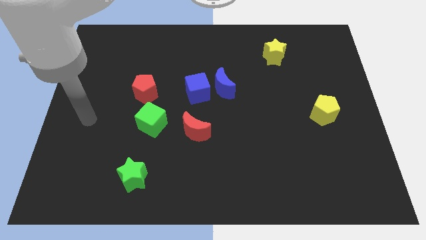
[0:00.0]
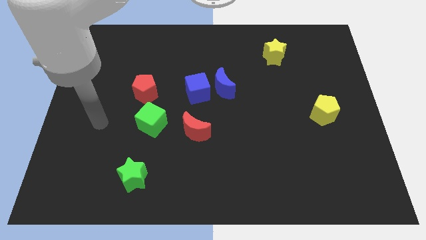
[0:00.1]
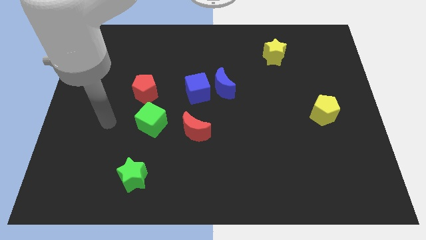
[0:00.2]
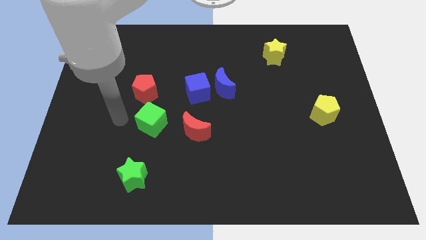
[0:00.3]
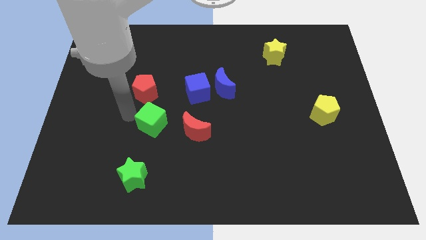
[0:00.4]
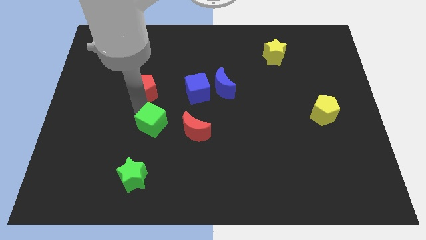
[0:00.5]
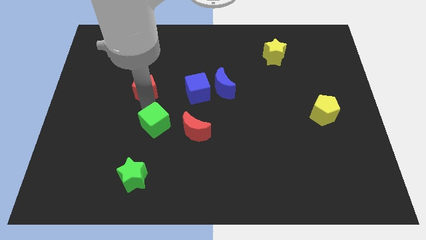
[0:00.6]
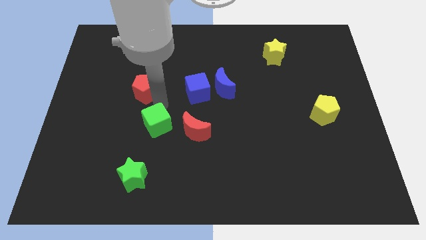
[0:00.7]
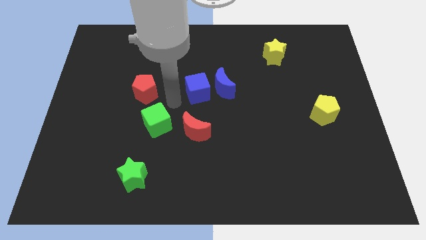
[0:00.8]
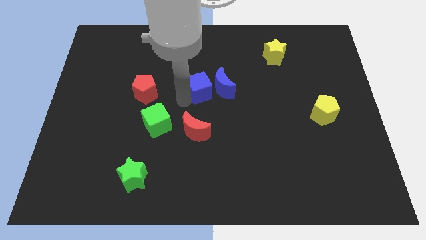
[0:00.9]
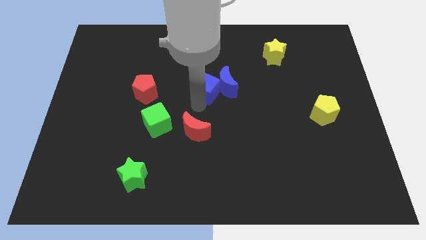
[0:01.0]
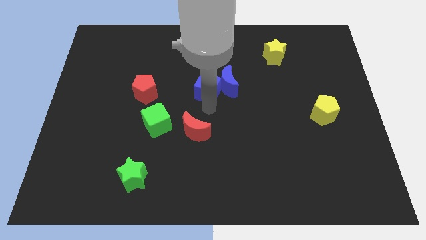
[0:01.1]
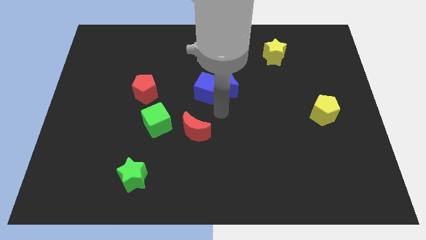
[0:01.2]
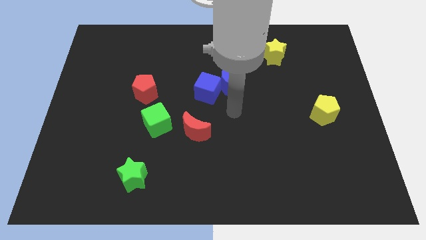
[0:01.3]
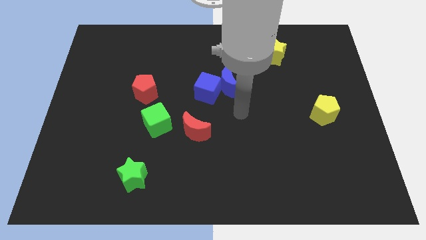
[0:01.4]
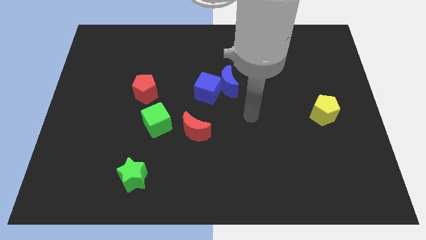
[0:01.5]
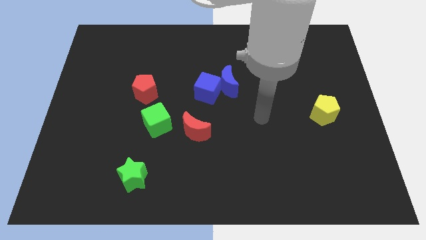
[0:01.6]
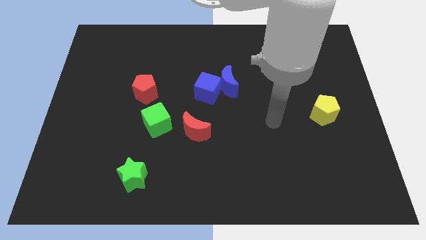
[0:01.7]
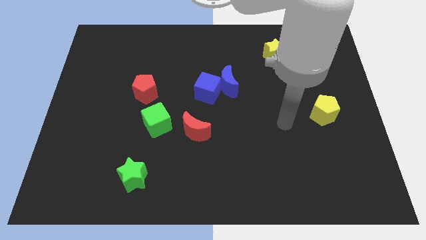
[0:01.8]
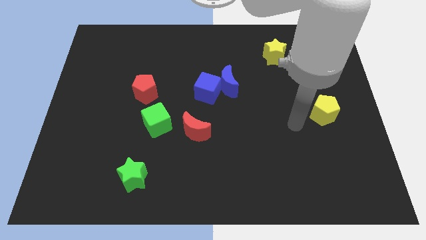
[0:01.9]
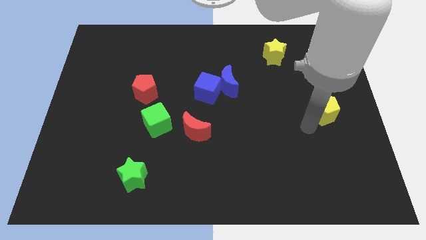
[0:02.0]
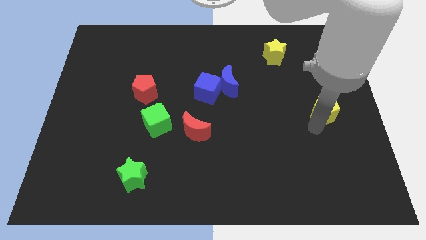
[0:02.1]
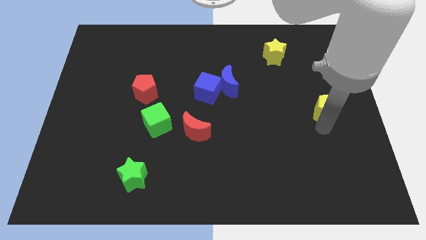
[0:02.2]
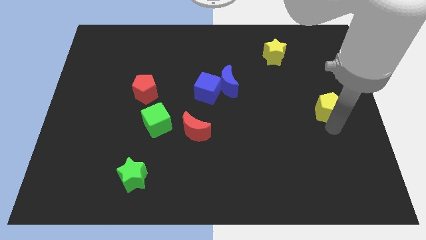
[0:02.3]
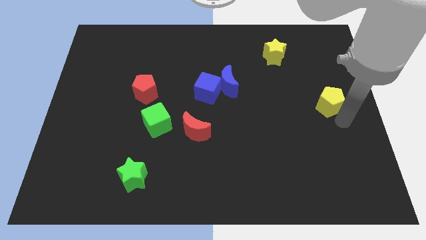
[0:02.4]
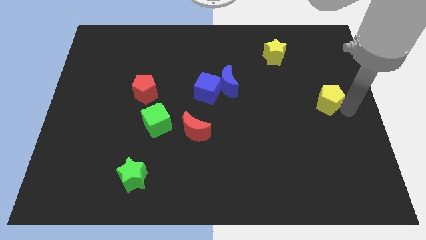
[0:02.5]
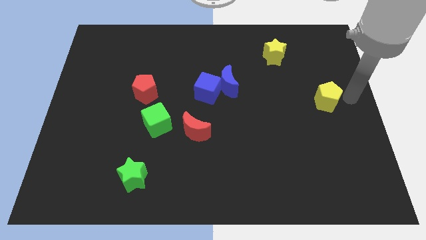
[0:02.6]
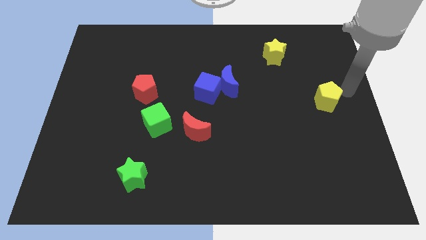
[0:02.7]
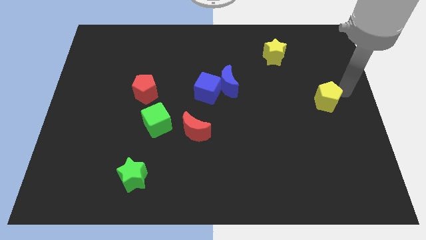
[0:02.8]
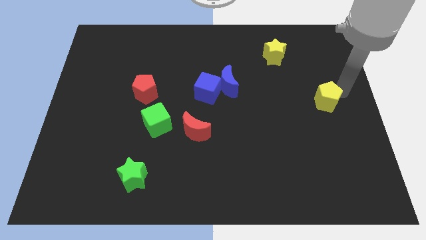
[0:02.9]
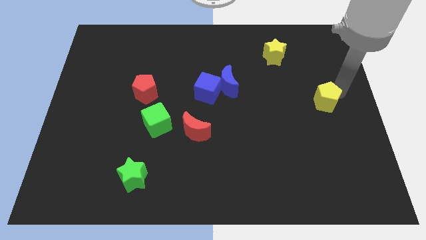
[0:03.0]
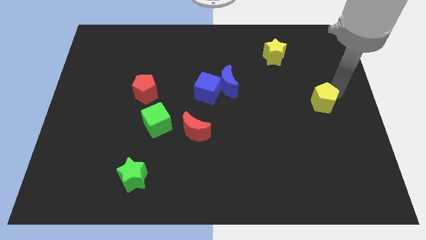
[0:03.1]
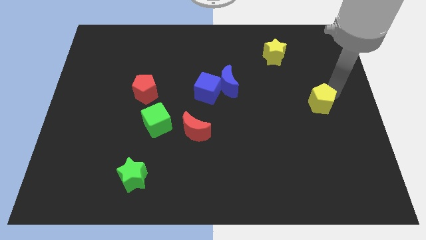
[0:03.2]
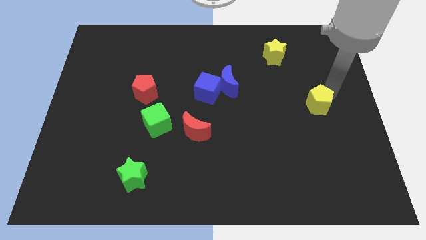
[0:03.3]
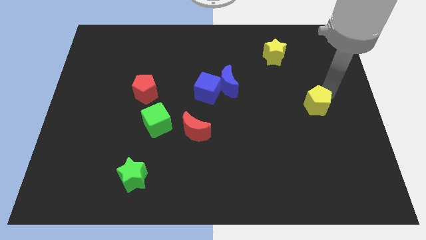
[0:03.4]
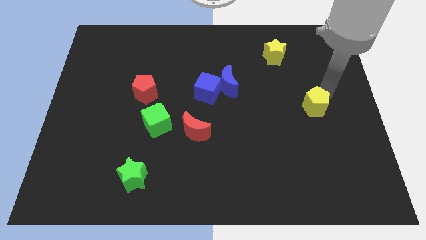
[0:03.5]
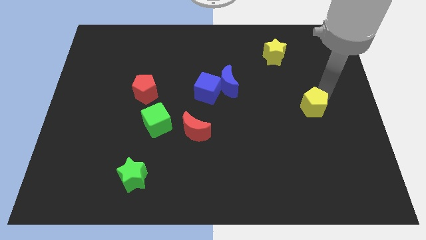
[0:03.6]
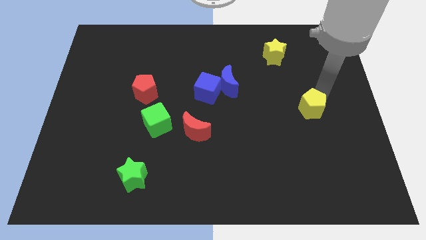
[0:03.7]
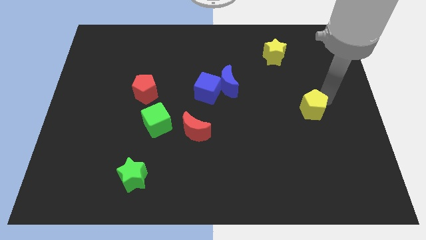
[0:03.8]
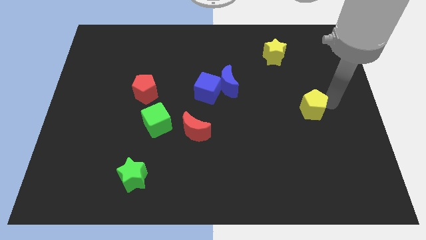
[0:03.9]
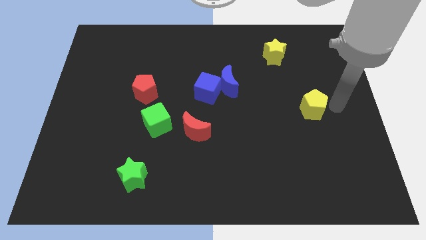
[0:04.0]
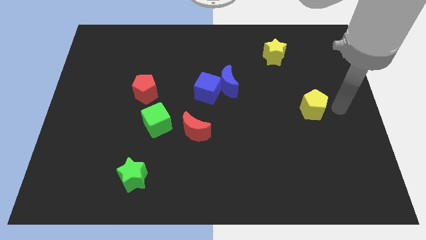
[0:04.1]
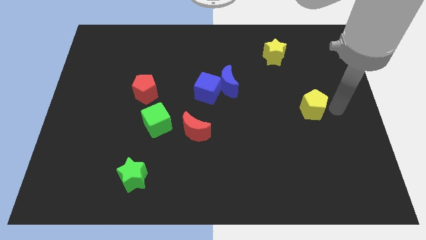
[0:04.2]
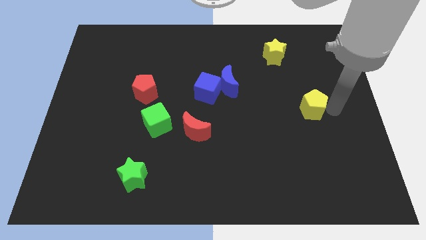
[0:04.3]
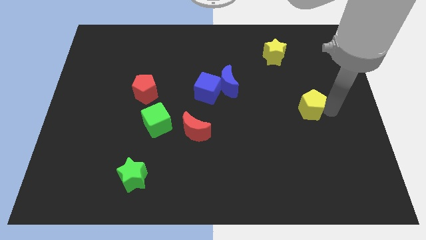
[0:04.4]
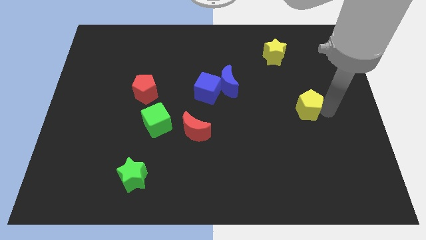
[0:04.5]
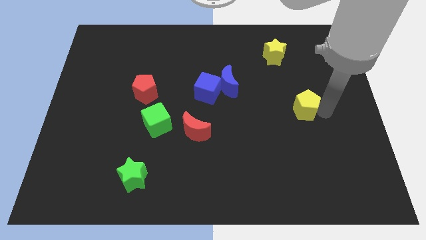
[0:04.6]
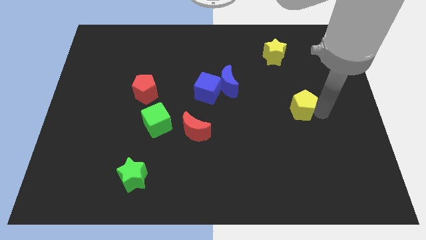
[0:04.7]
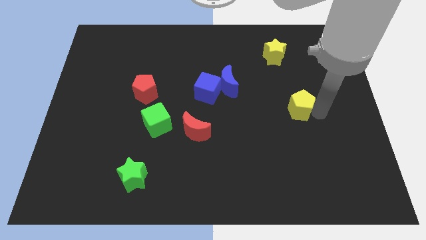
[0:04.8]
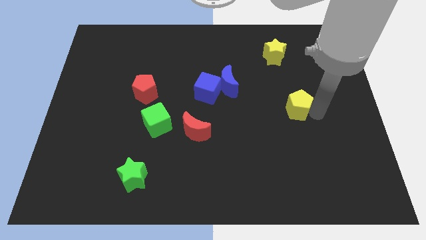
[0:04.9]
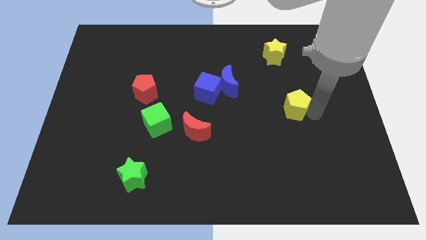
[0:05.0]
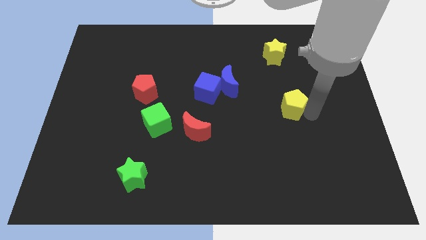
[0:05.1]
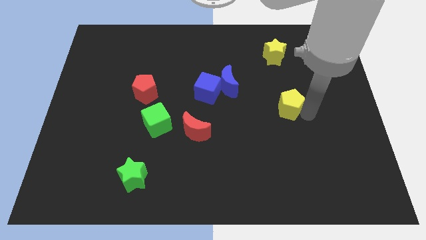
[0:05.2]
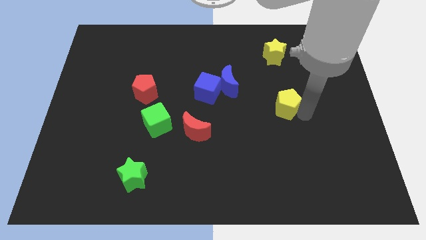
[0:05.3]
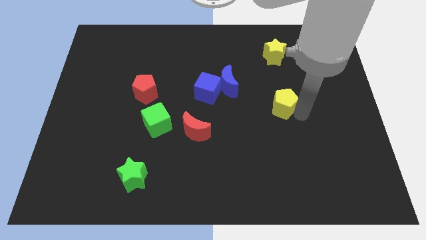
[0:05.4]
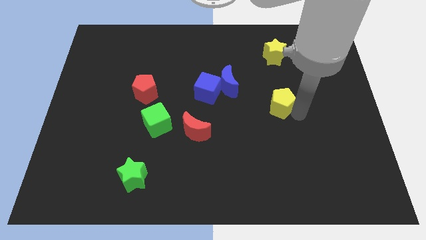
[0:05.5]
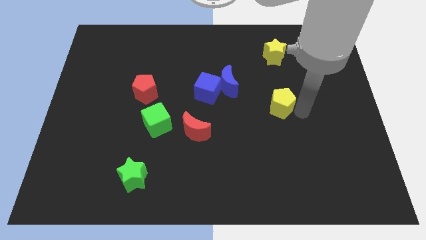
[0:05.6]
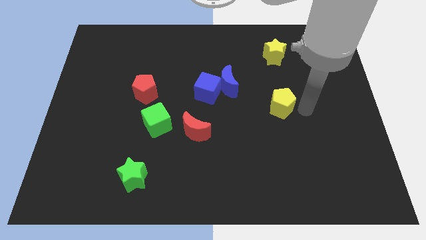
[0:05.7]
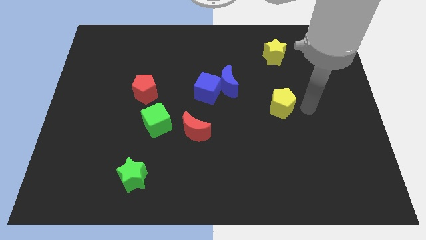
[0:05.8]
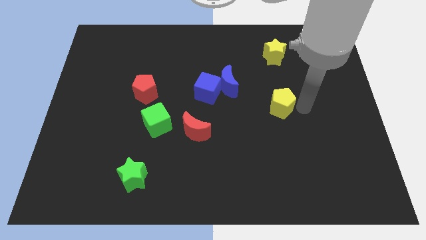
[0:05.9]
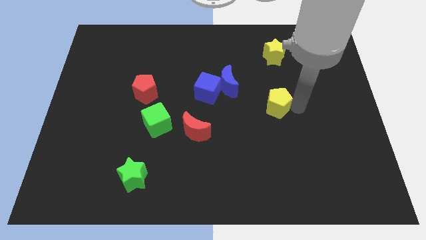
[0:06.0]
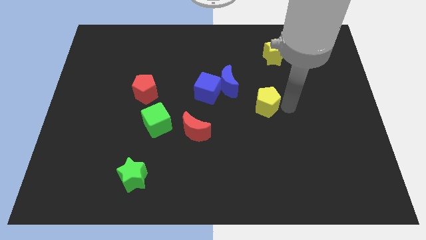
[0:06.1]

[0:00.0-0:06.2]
slide the yellow pentagon to the center
